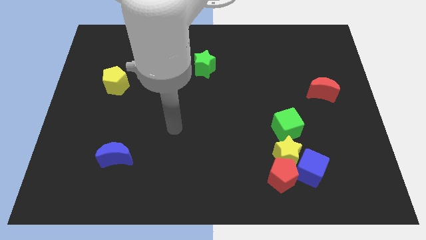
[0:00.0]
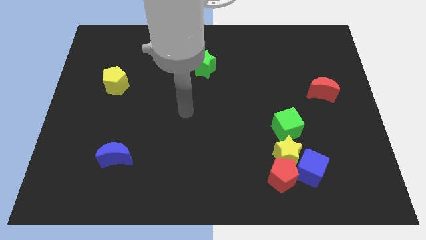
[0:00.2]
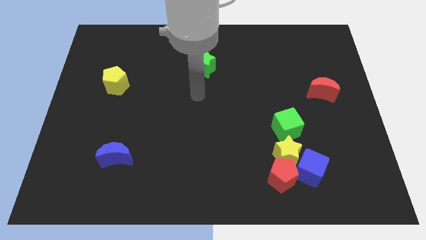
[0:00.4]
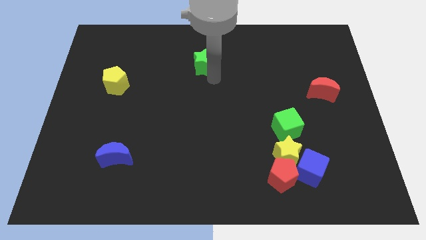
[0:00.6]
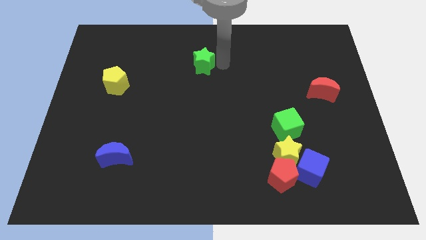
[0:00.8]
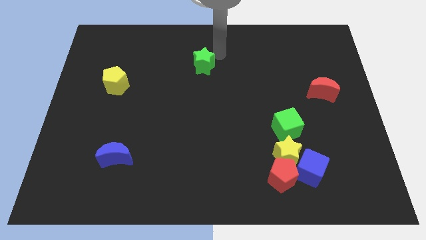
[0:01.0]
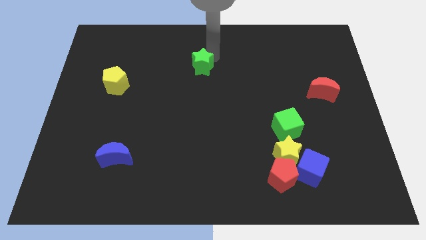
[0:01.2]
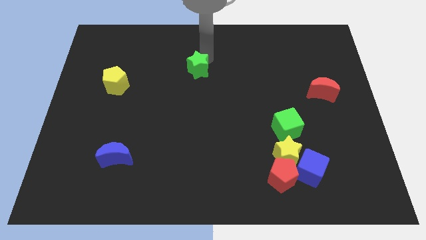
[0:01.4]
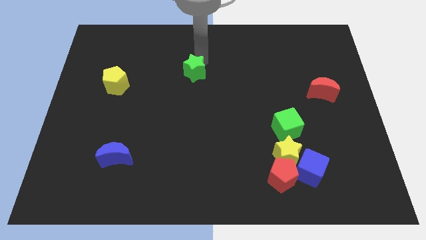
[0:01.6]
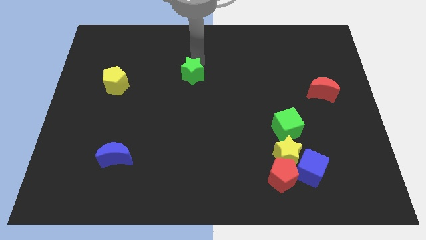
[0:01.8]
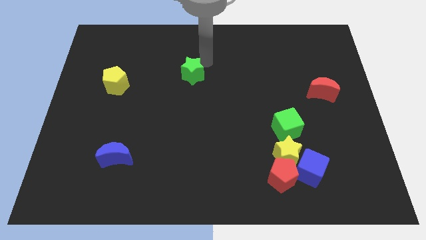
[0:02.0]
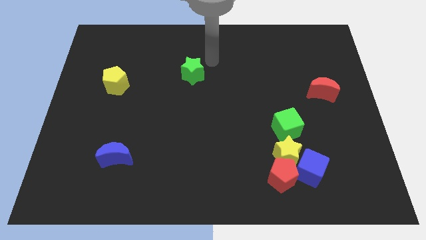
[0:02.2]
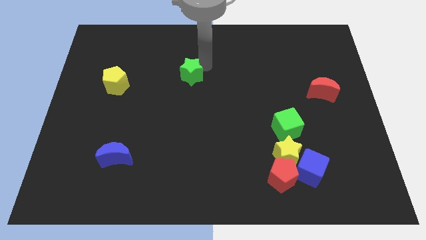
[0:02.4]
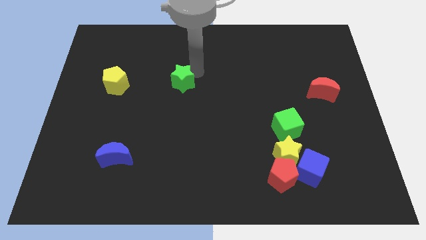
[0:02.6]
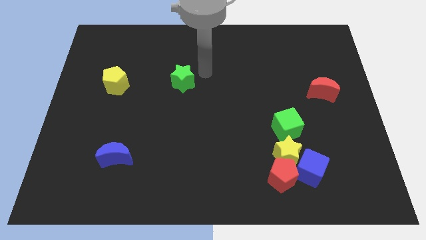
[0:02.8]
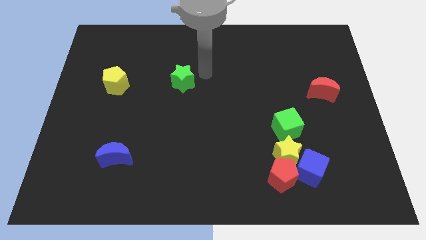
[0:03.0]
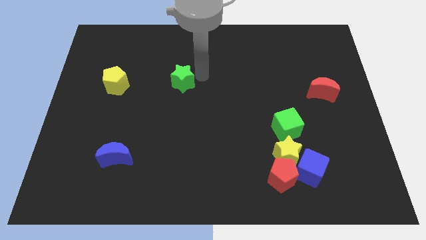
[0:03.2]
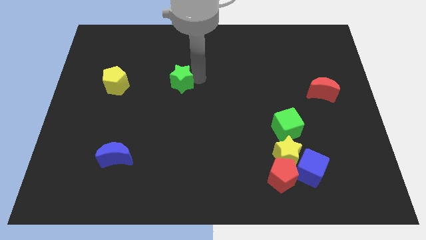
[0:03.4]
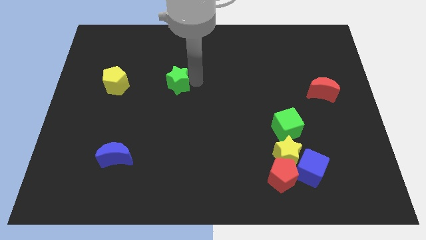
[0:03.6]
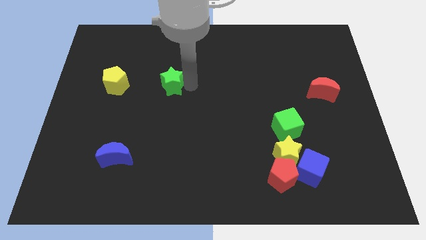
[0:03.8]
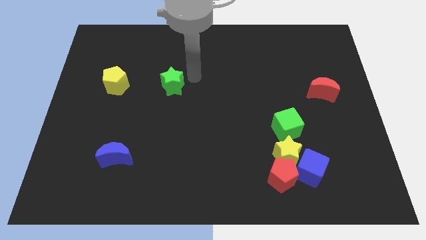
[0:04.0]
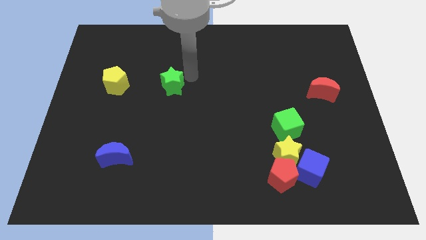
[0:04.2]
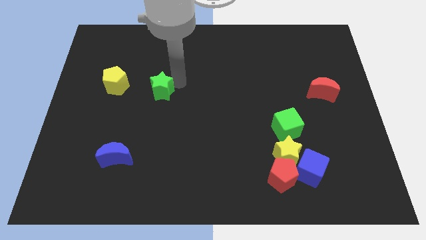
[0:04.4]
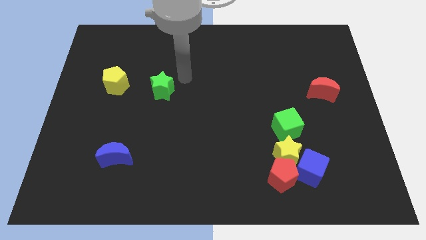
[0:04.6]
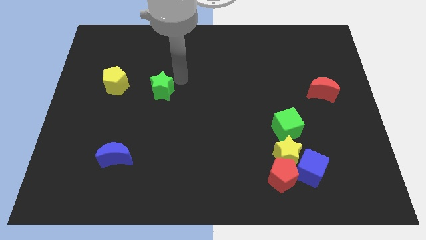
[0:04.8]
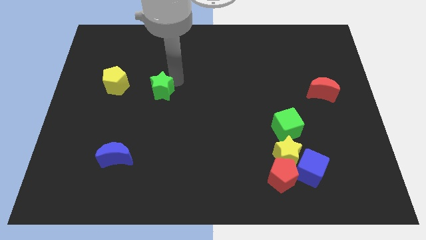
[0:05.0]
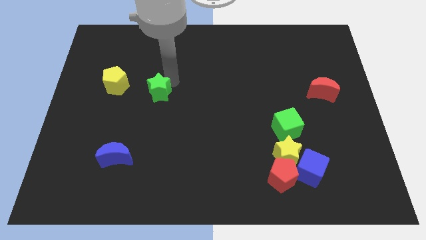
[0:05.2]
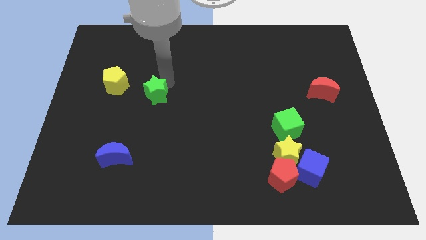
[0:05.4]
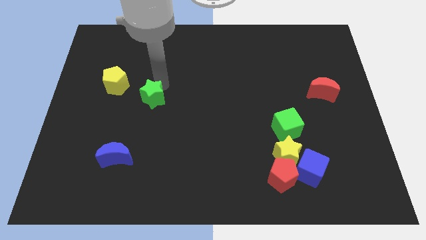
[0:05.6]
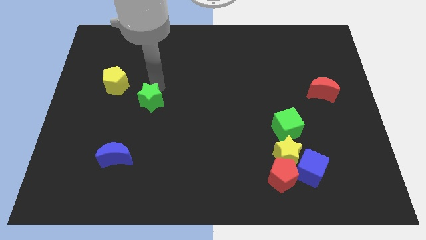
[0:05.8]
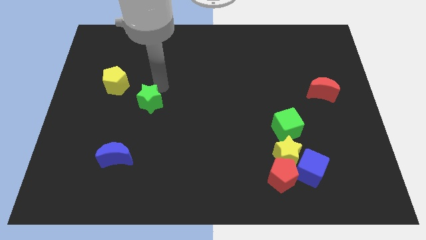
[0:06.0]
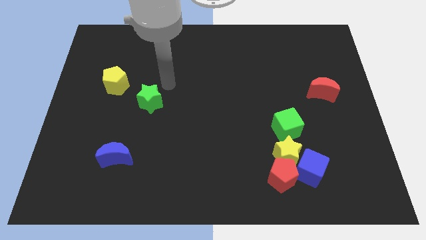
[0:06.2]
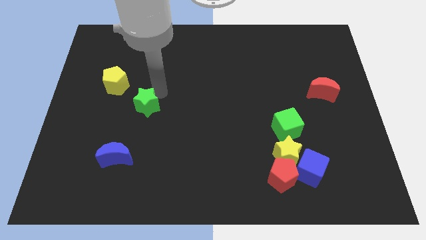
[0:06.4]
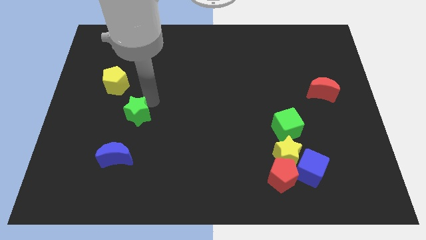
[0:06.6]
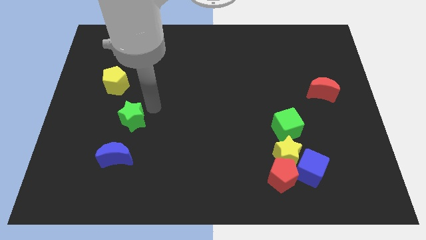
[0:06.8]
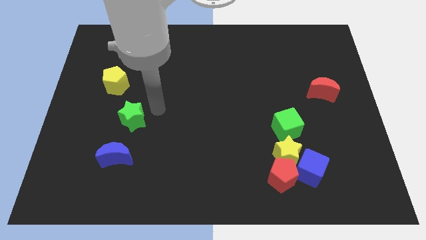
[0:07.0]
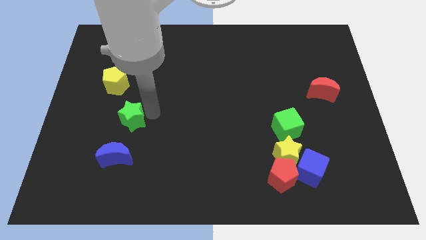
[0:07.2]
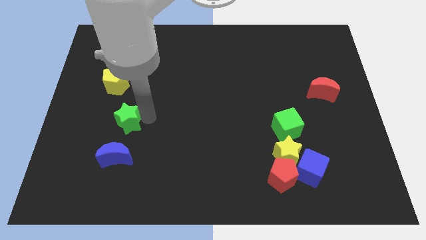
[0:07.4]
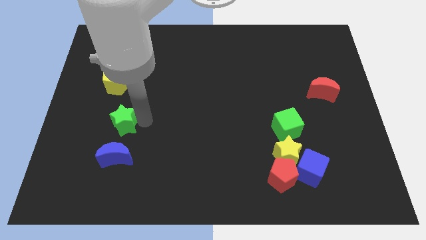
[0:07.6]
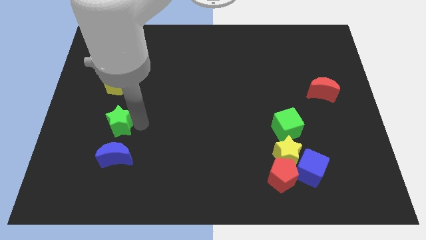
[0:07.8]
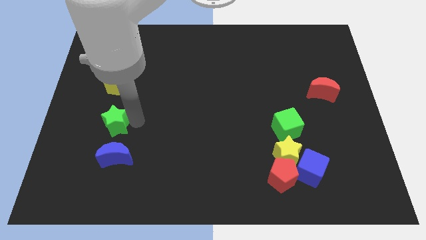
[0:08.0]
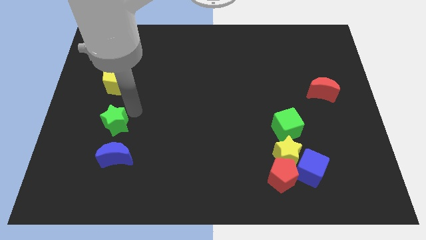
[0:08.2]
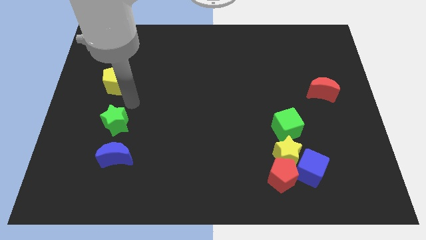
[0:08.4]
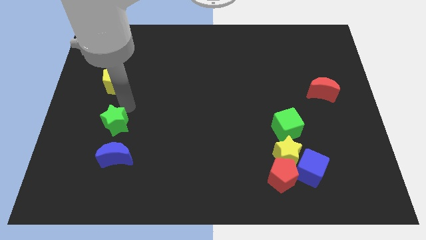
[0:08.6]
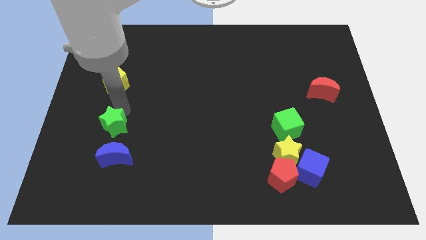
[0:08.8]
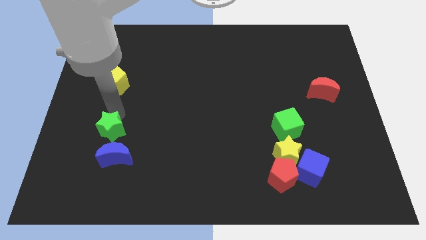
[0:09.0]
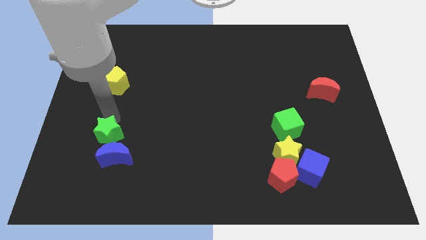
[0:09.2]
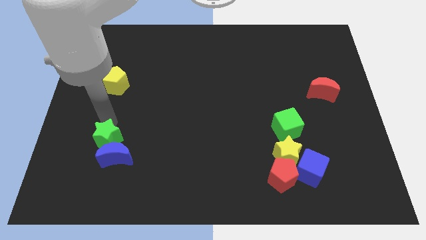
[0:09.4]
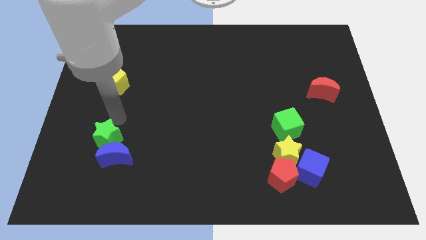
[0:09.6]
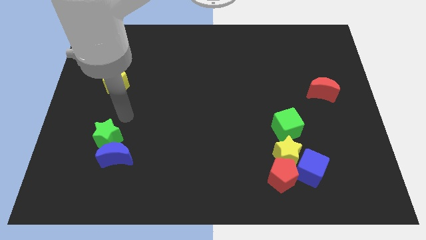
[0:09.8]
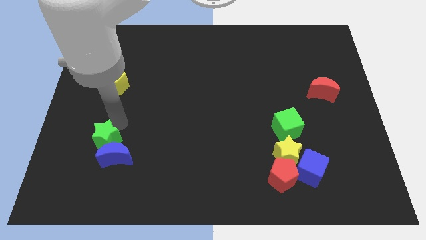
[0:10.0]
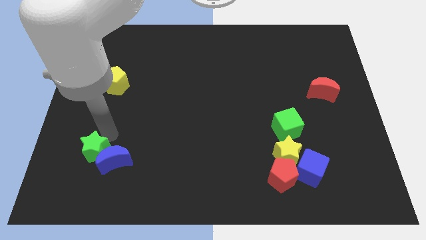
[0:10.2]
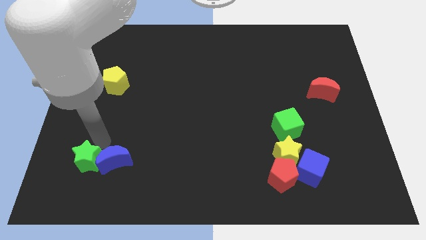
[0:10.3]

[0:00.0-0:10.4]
move the green star to the bottom left side of the blue moon

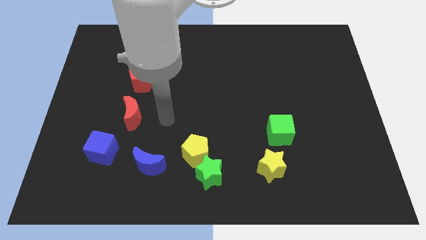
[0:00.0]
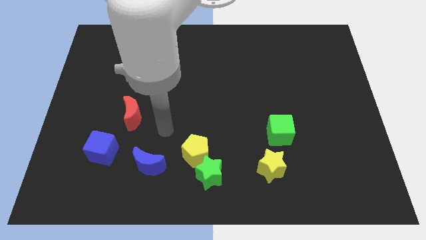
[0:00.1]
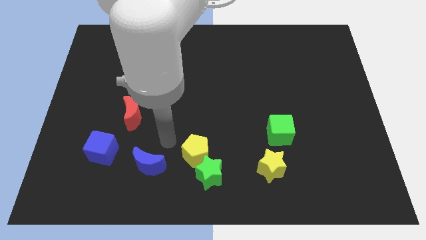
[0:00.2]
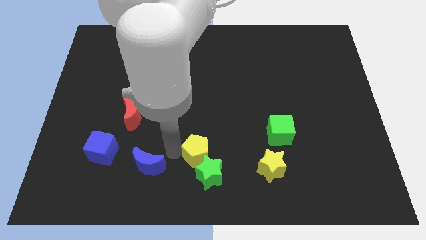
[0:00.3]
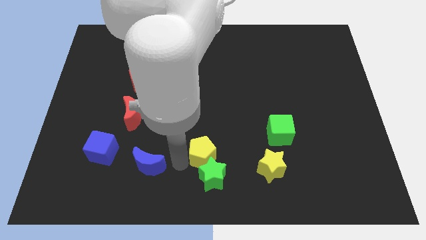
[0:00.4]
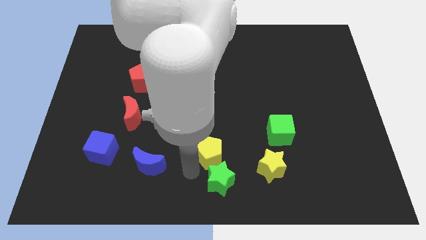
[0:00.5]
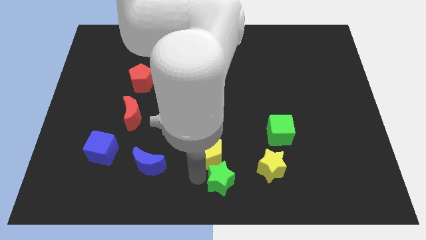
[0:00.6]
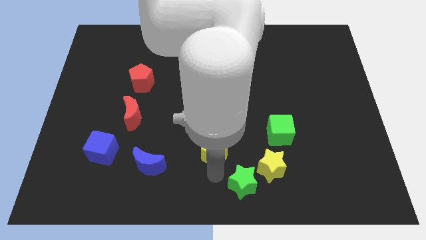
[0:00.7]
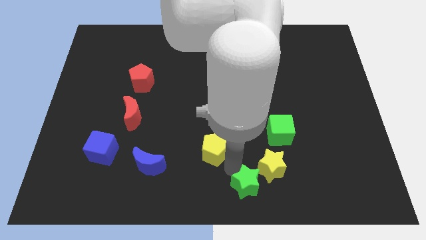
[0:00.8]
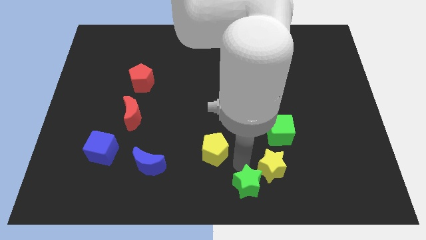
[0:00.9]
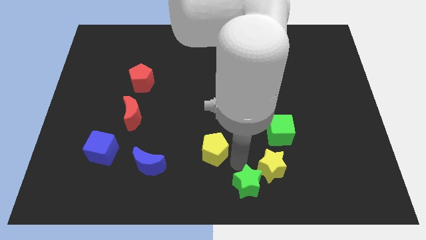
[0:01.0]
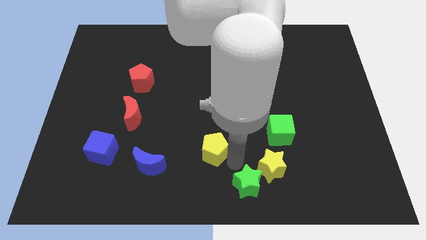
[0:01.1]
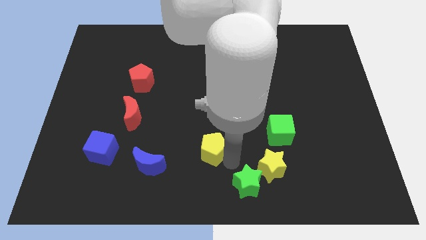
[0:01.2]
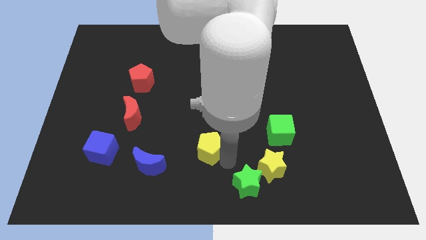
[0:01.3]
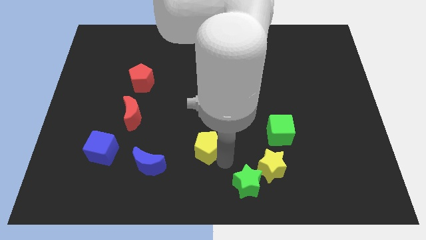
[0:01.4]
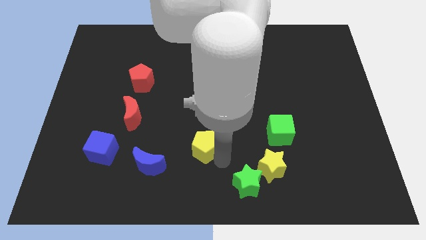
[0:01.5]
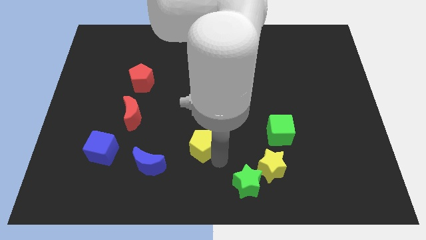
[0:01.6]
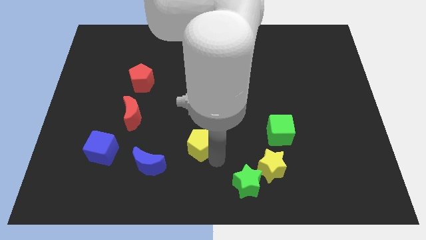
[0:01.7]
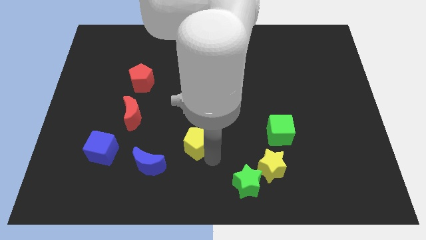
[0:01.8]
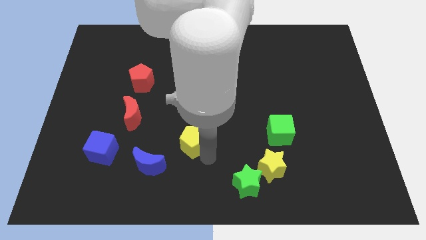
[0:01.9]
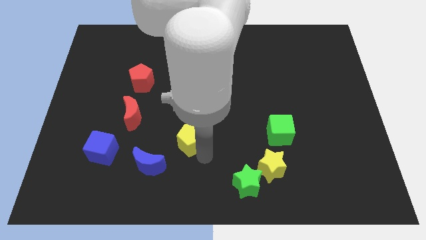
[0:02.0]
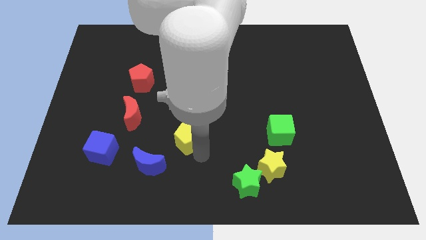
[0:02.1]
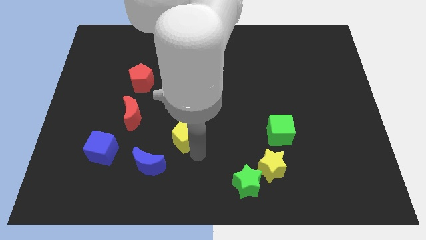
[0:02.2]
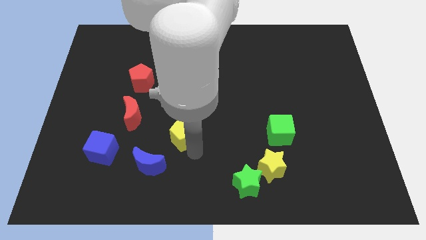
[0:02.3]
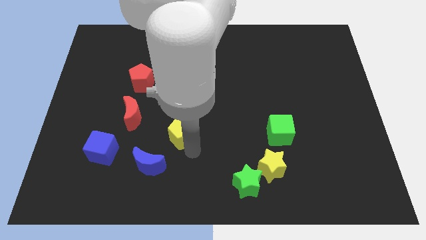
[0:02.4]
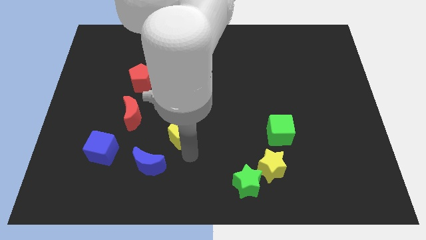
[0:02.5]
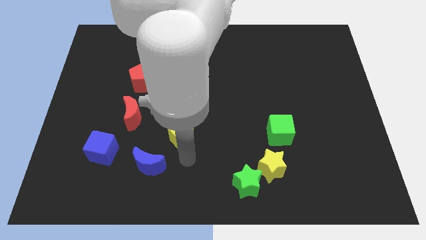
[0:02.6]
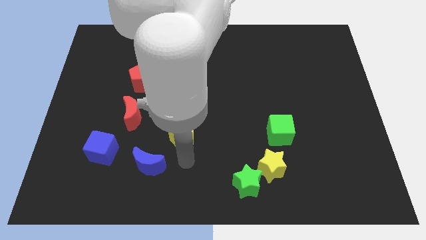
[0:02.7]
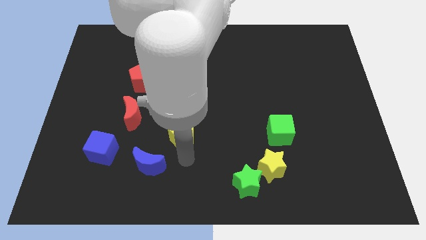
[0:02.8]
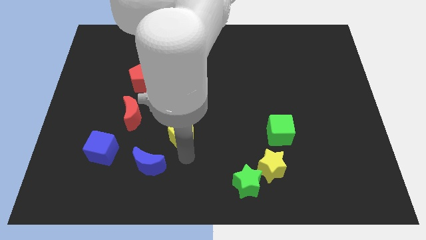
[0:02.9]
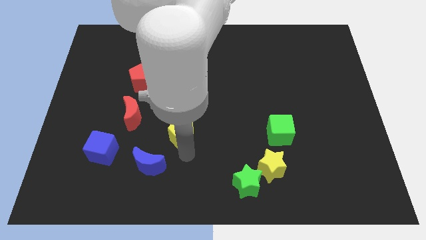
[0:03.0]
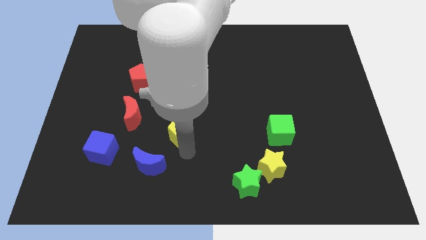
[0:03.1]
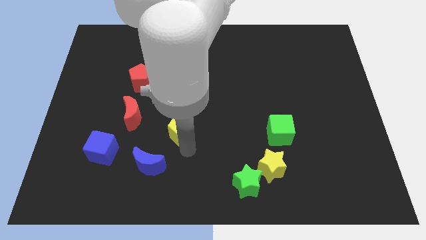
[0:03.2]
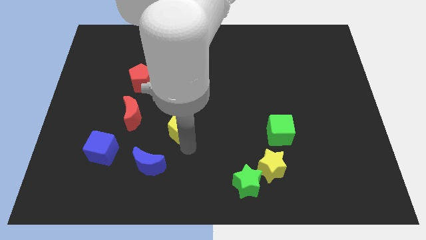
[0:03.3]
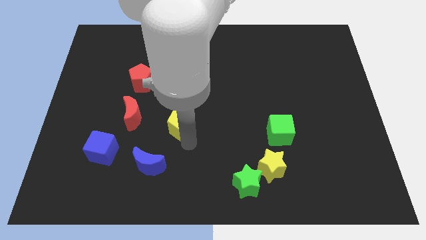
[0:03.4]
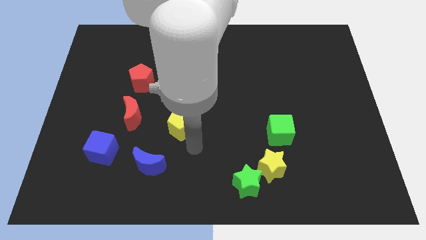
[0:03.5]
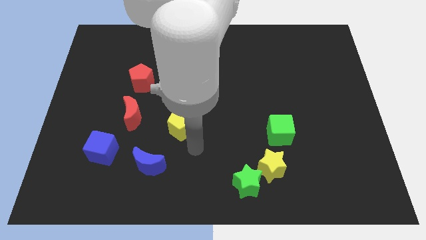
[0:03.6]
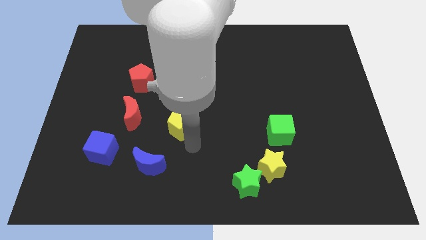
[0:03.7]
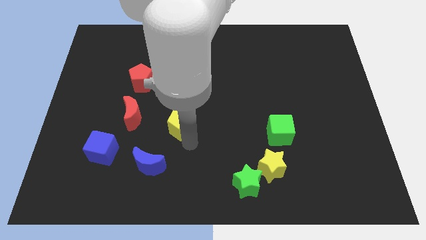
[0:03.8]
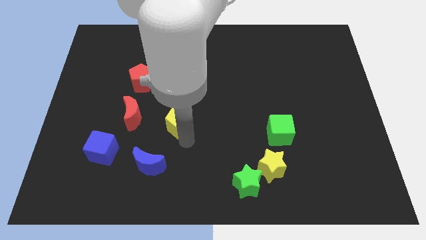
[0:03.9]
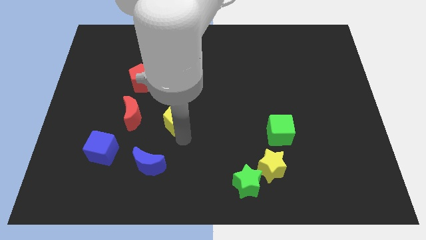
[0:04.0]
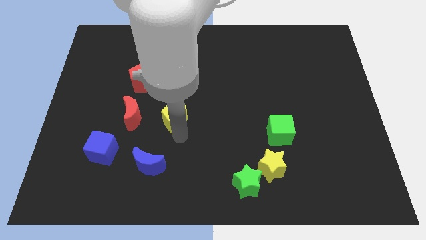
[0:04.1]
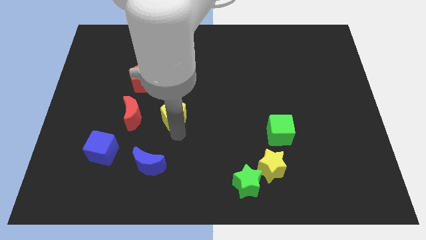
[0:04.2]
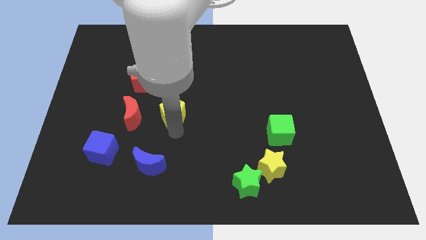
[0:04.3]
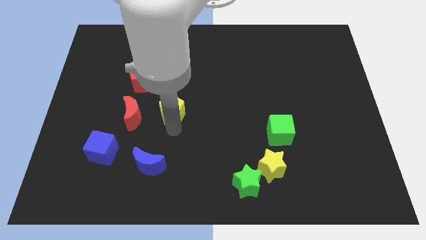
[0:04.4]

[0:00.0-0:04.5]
put the yellow pentagon to the bottom right side of the red pentagon
